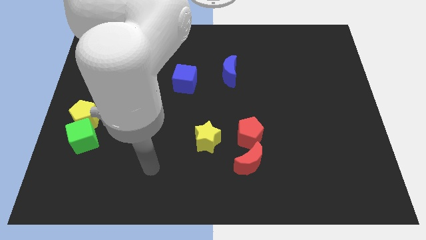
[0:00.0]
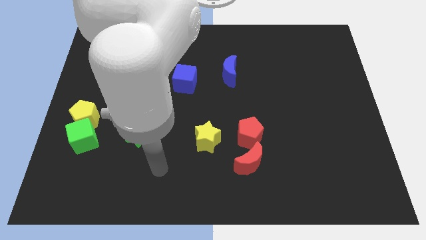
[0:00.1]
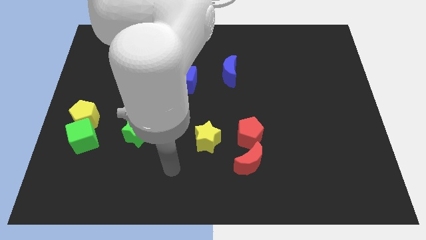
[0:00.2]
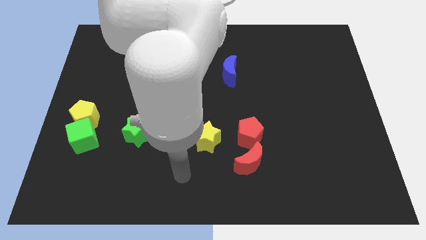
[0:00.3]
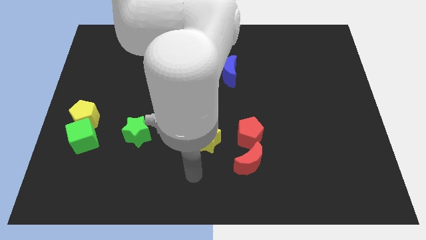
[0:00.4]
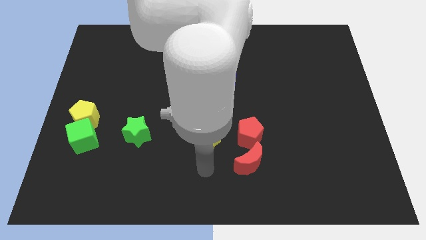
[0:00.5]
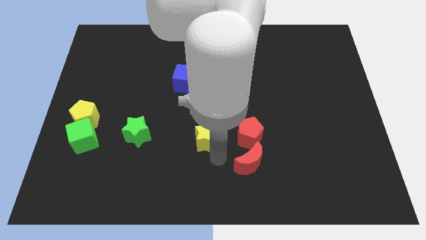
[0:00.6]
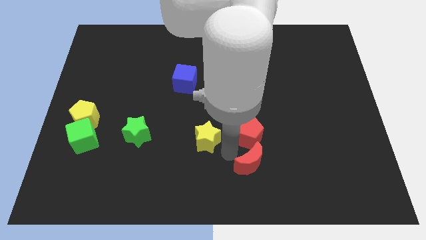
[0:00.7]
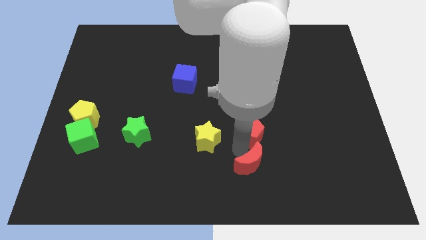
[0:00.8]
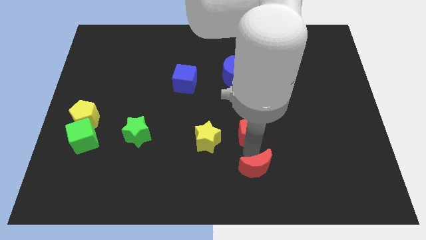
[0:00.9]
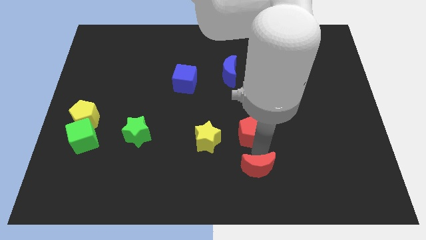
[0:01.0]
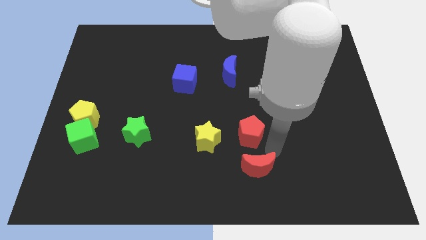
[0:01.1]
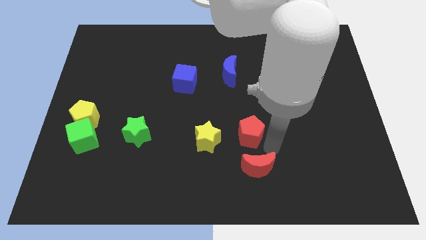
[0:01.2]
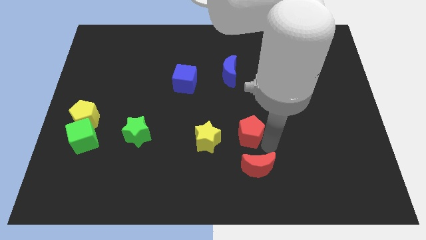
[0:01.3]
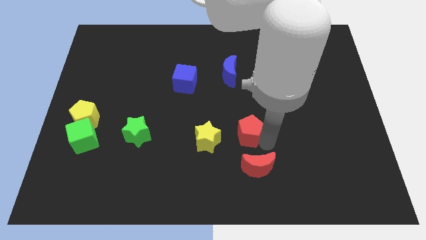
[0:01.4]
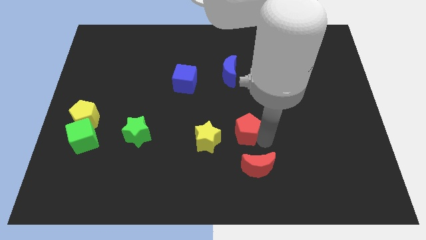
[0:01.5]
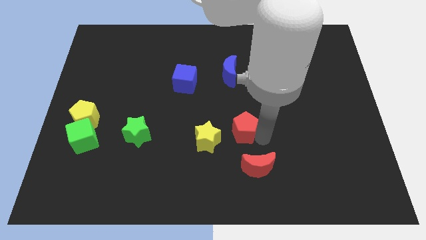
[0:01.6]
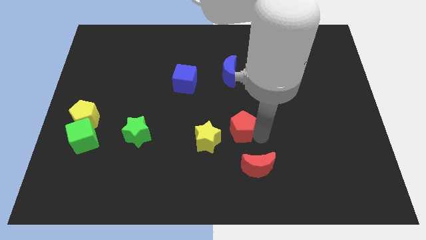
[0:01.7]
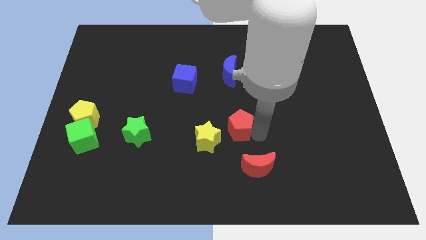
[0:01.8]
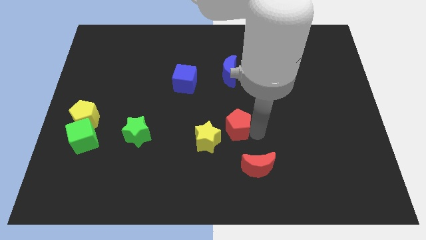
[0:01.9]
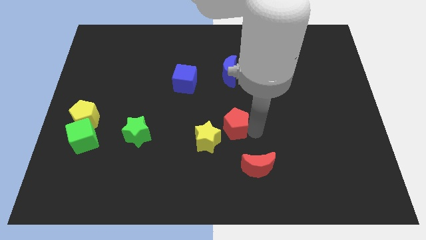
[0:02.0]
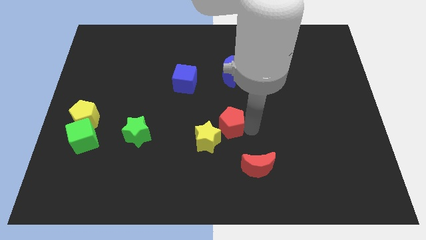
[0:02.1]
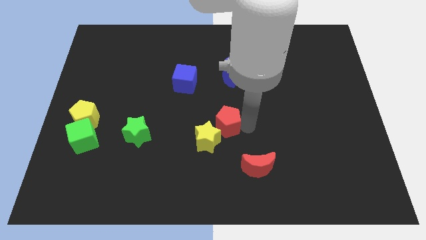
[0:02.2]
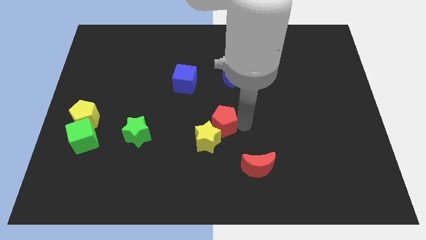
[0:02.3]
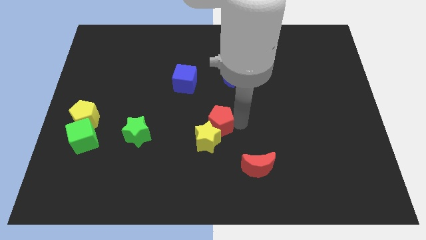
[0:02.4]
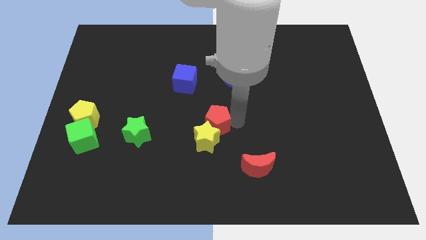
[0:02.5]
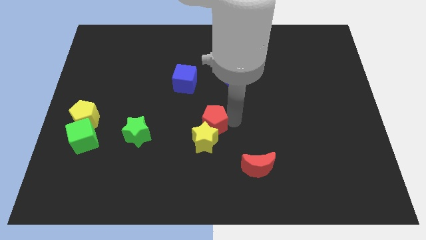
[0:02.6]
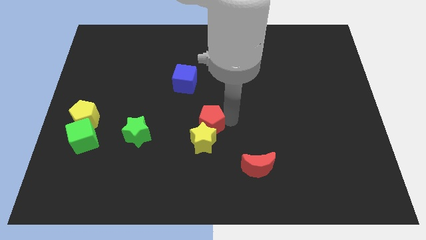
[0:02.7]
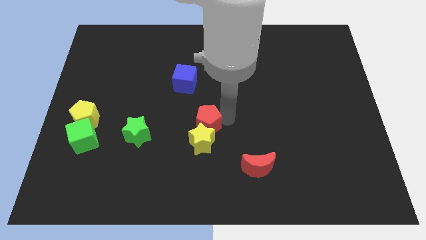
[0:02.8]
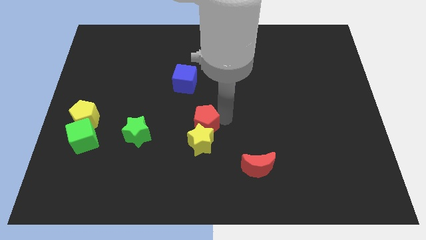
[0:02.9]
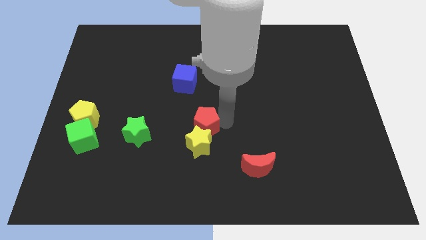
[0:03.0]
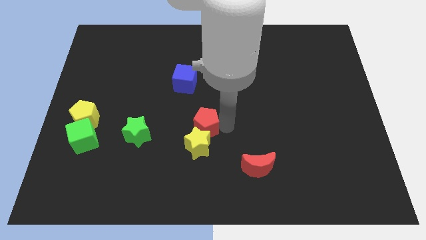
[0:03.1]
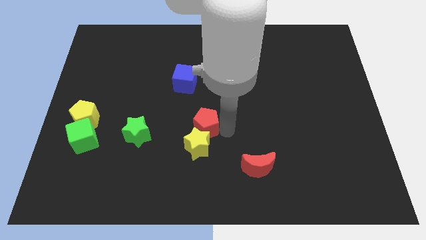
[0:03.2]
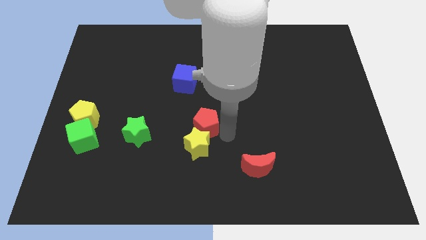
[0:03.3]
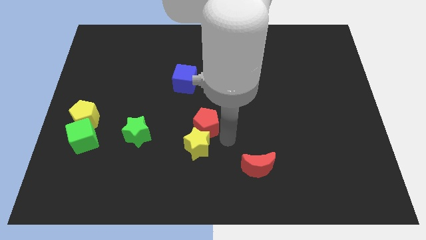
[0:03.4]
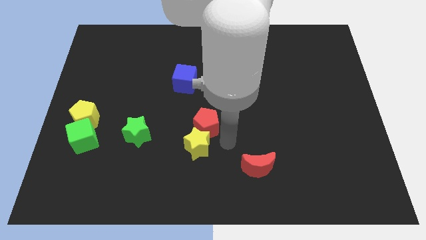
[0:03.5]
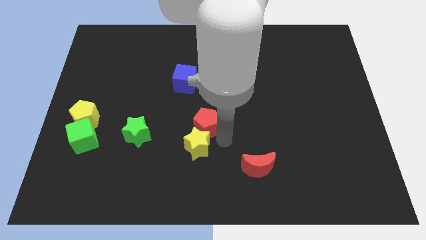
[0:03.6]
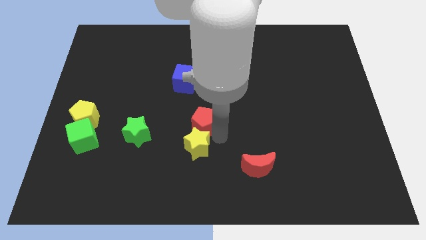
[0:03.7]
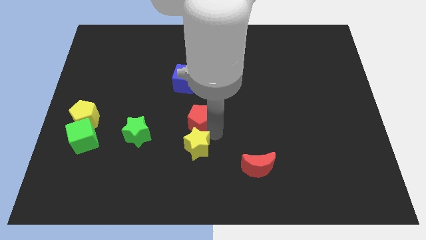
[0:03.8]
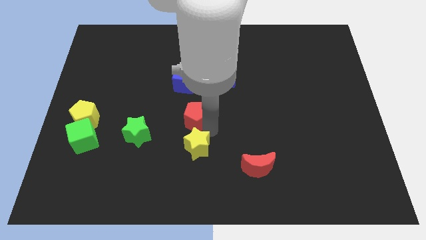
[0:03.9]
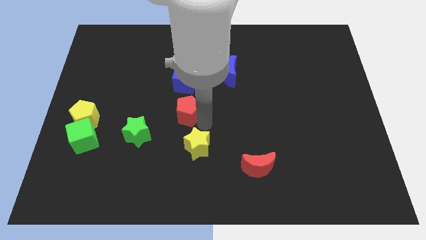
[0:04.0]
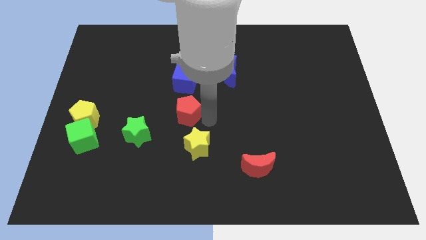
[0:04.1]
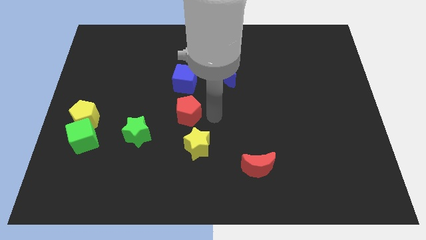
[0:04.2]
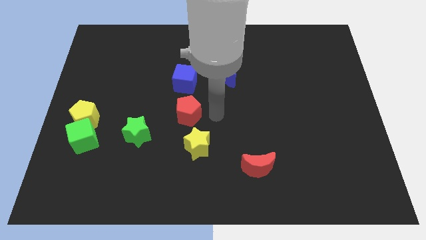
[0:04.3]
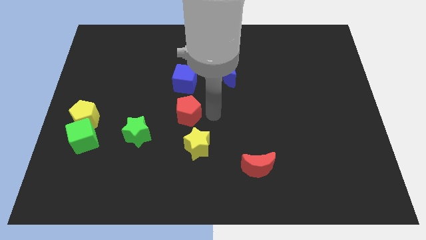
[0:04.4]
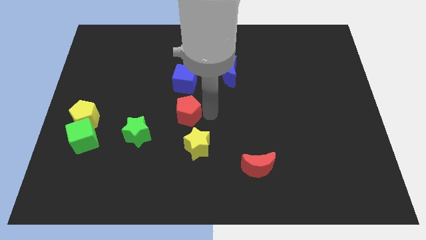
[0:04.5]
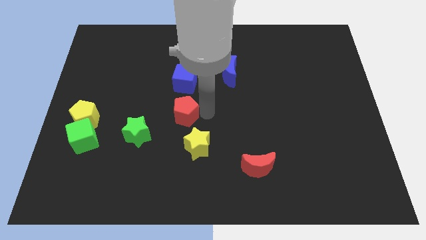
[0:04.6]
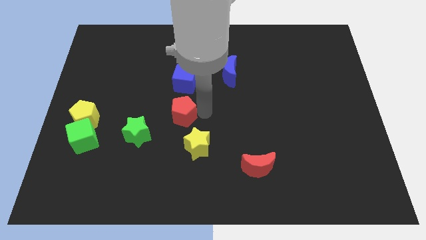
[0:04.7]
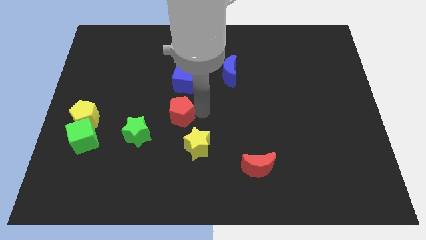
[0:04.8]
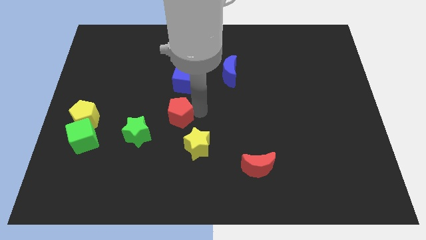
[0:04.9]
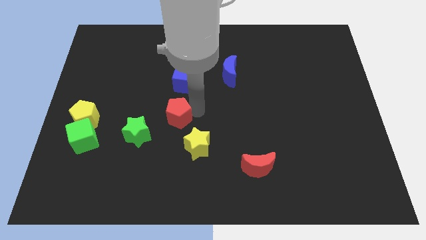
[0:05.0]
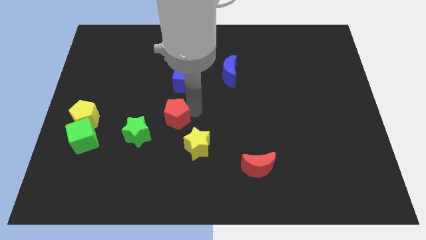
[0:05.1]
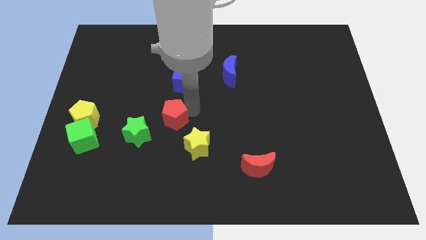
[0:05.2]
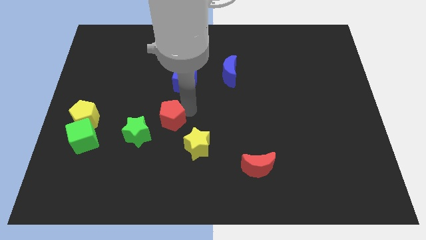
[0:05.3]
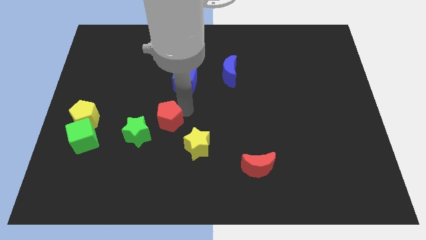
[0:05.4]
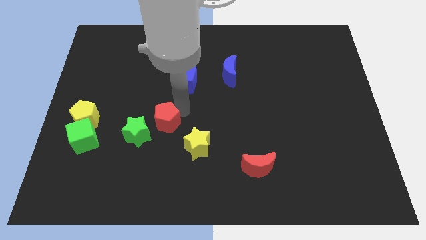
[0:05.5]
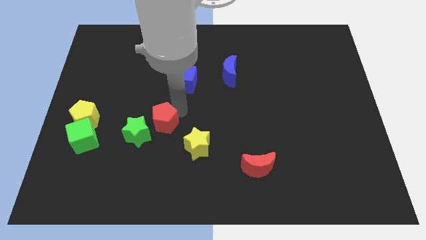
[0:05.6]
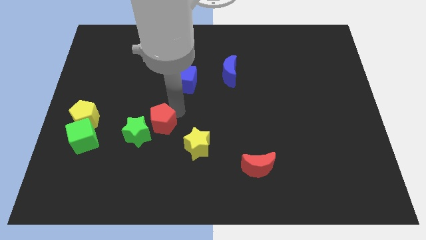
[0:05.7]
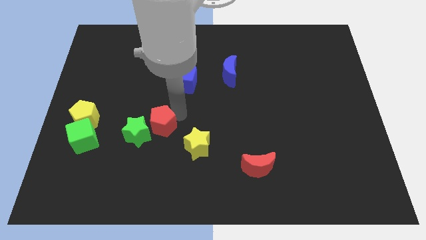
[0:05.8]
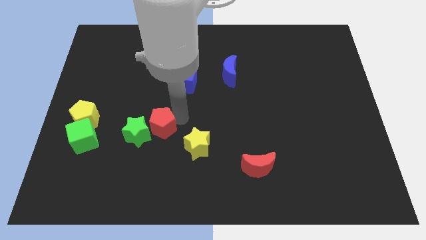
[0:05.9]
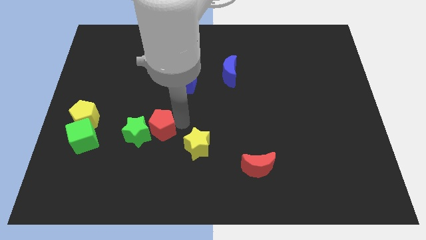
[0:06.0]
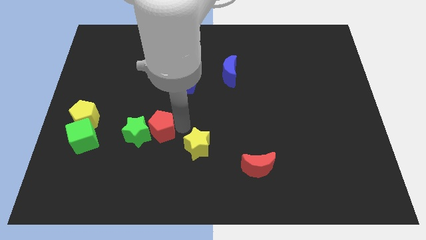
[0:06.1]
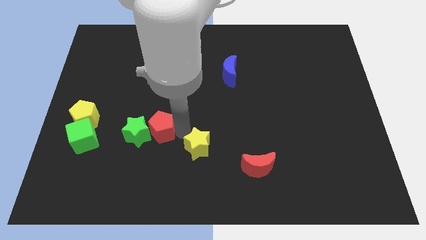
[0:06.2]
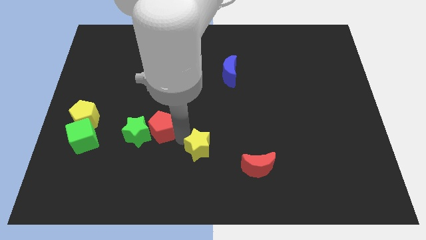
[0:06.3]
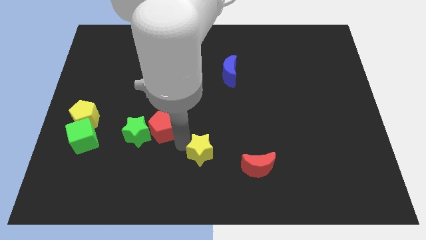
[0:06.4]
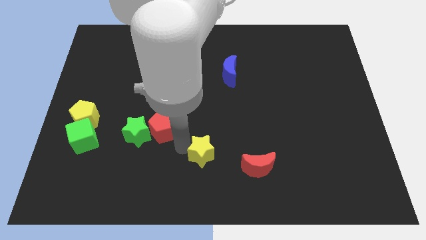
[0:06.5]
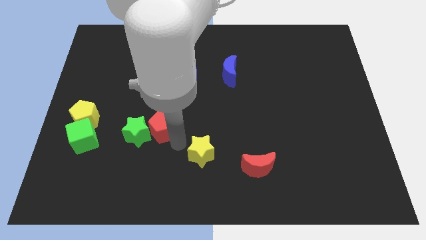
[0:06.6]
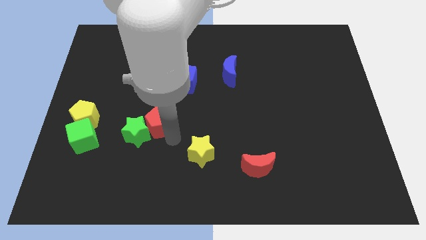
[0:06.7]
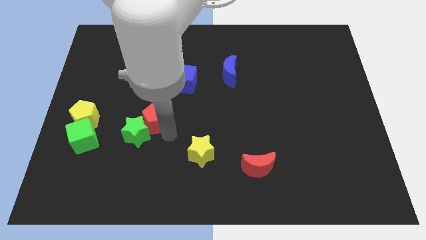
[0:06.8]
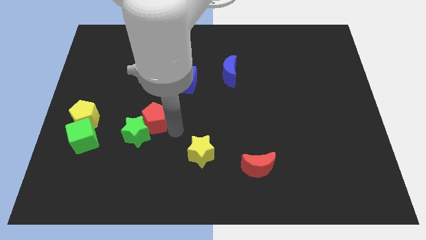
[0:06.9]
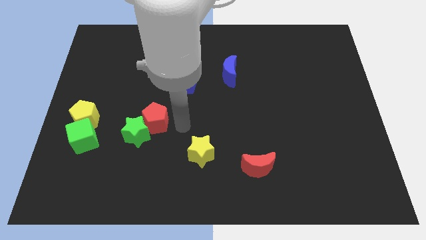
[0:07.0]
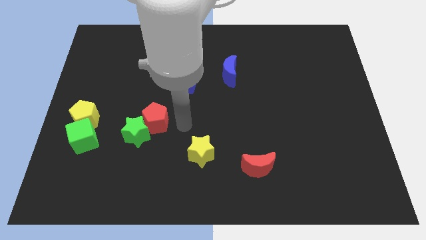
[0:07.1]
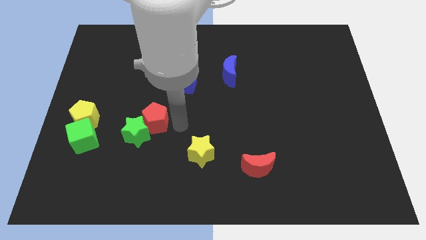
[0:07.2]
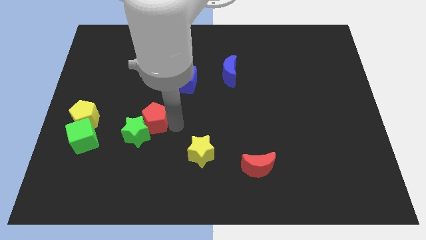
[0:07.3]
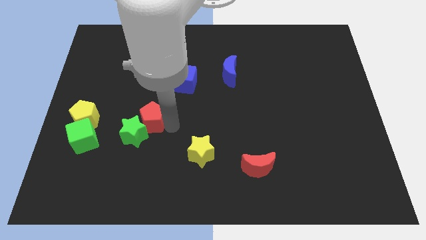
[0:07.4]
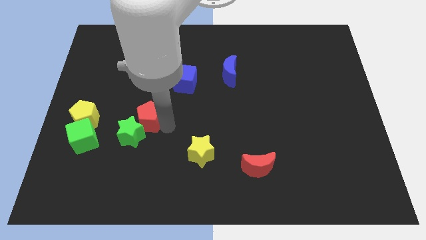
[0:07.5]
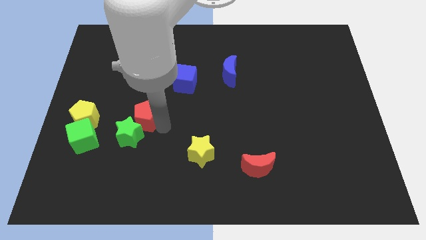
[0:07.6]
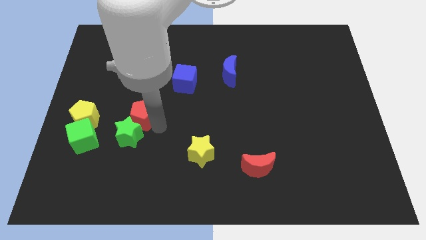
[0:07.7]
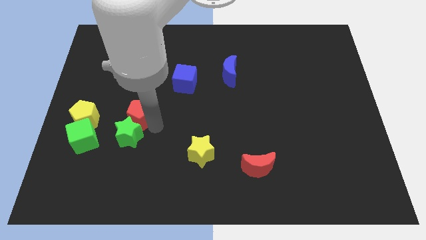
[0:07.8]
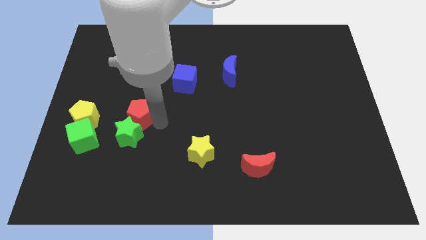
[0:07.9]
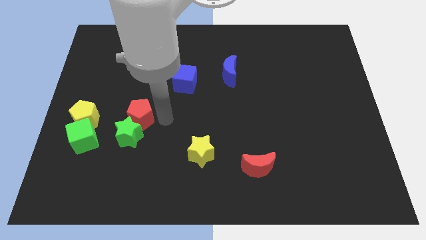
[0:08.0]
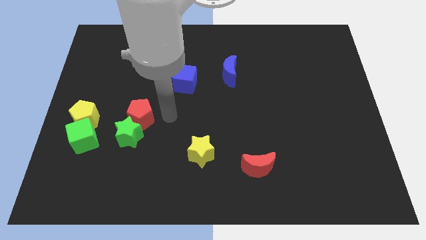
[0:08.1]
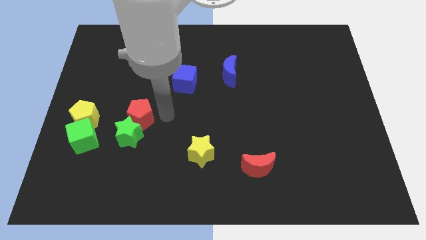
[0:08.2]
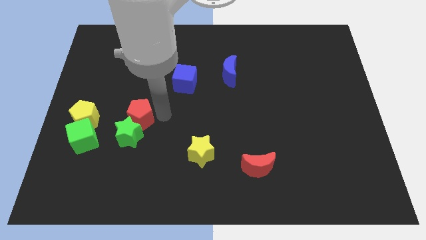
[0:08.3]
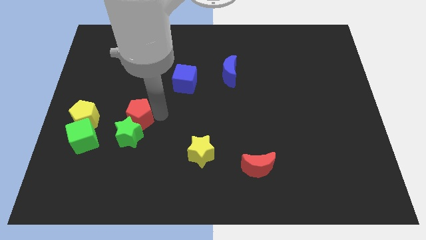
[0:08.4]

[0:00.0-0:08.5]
move the red pentagon to the top left of the green star
